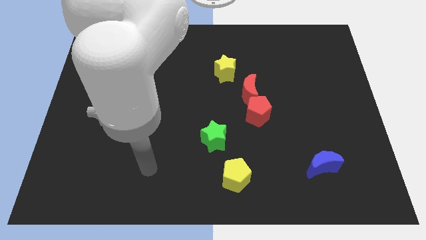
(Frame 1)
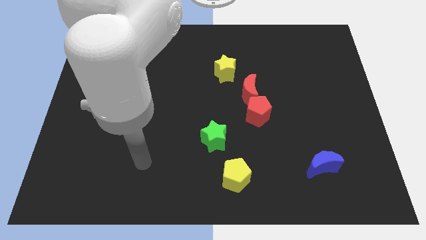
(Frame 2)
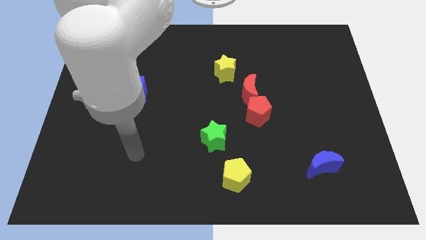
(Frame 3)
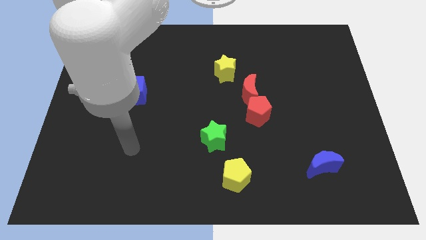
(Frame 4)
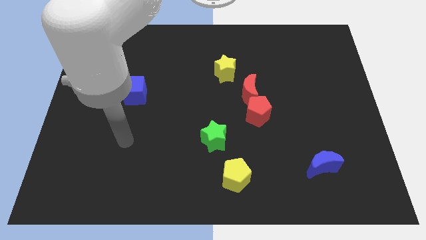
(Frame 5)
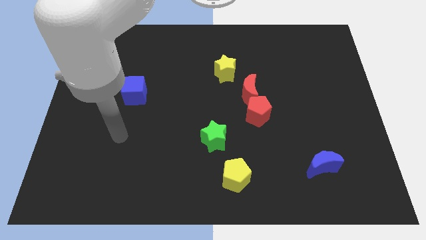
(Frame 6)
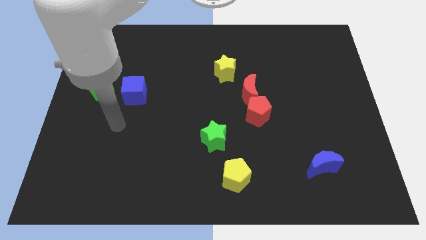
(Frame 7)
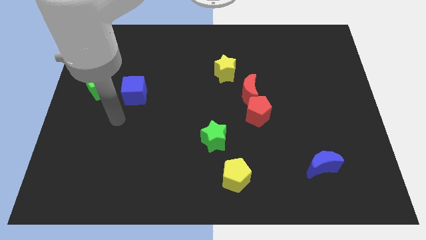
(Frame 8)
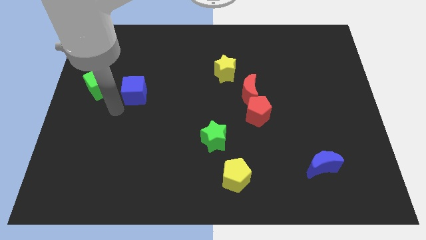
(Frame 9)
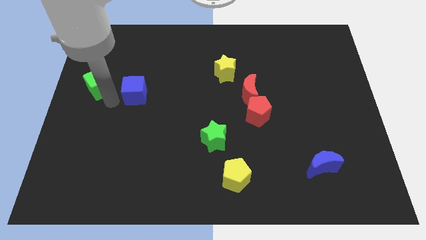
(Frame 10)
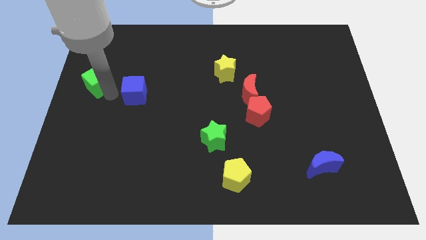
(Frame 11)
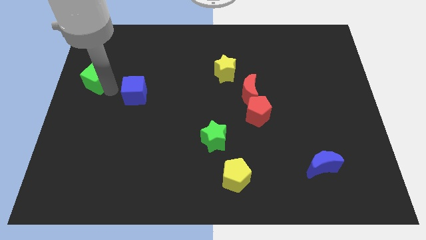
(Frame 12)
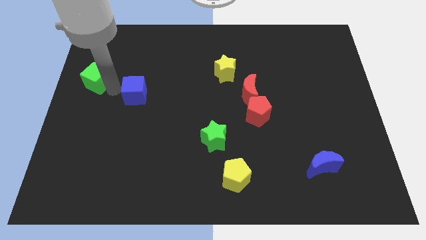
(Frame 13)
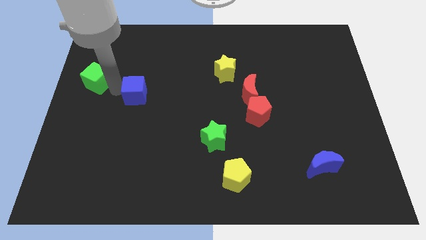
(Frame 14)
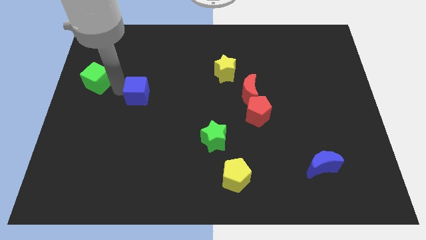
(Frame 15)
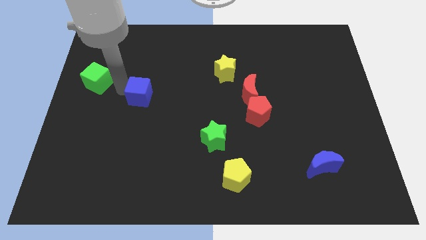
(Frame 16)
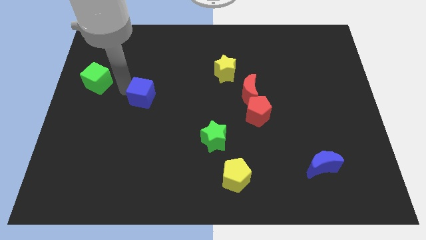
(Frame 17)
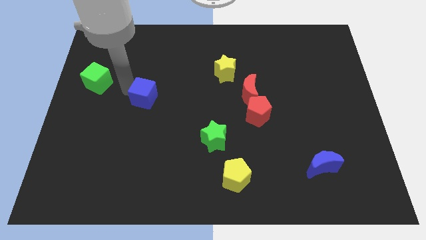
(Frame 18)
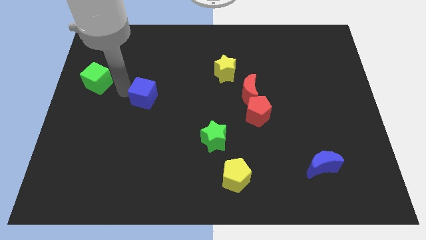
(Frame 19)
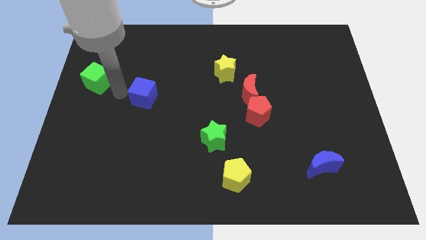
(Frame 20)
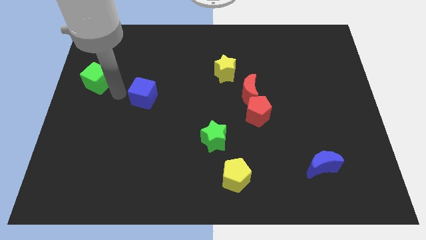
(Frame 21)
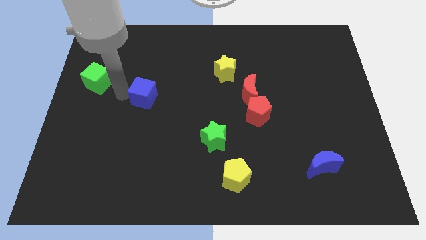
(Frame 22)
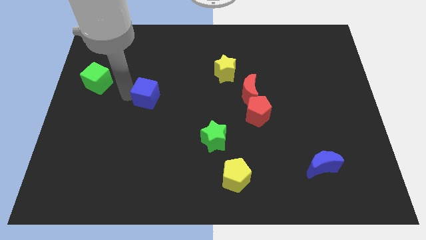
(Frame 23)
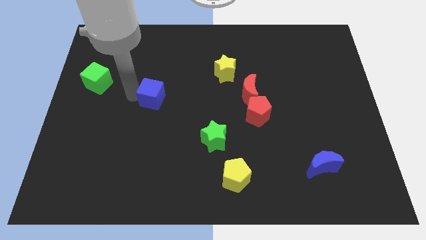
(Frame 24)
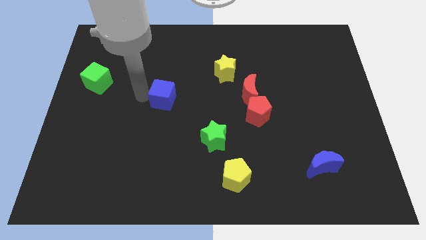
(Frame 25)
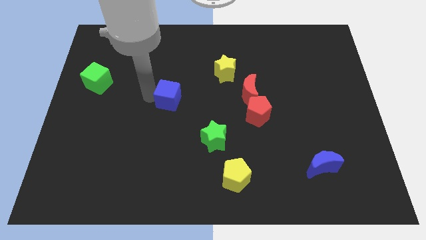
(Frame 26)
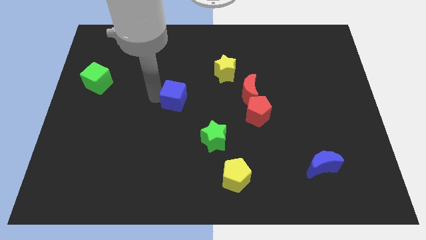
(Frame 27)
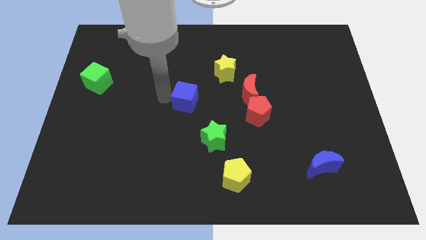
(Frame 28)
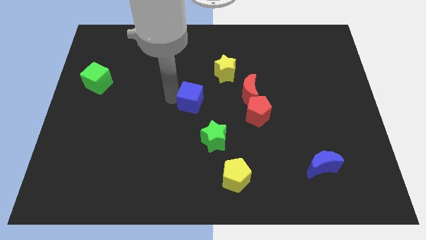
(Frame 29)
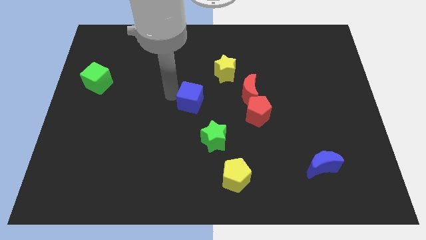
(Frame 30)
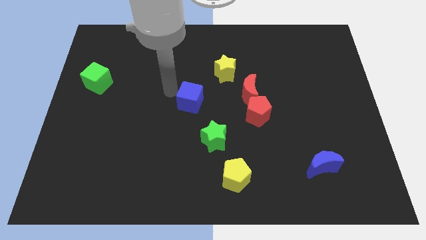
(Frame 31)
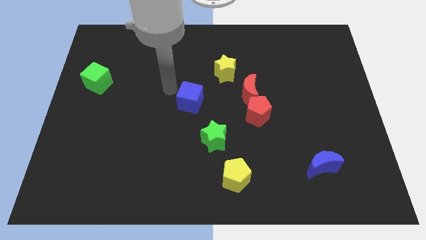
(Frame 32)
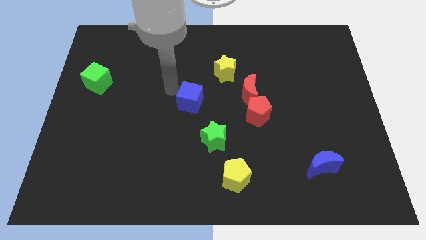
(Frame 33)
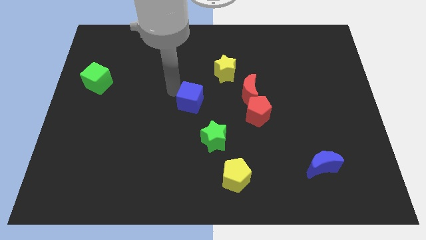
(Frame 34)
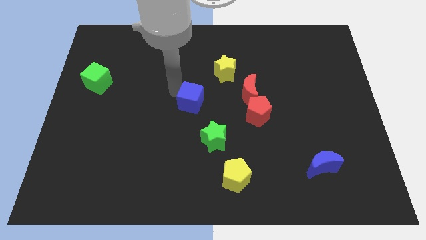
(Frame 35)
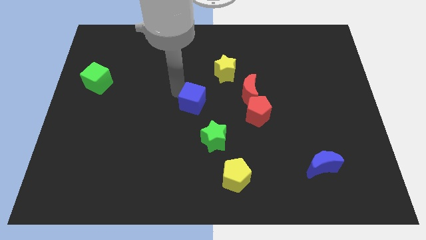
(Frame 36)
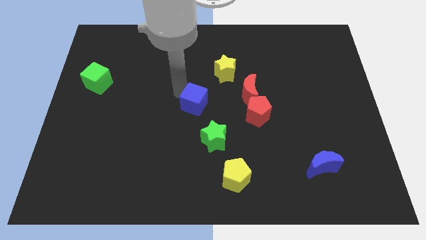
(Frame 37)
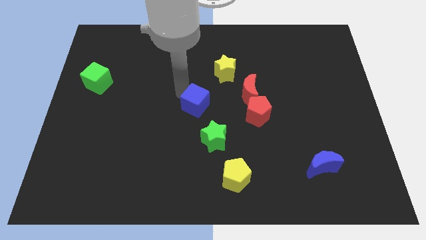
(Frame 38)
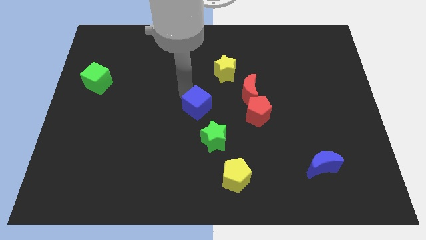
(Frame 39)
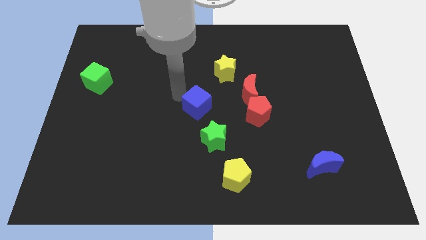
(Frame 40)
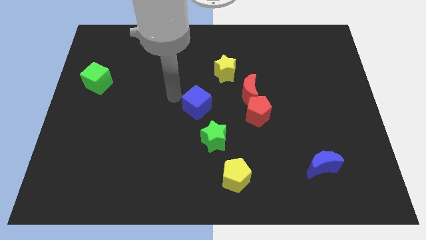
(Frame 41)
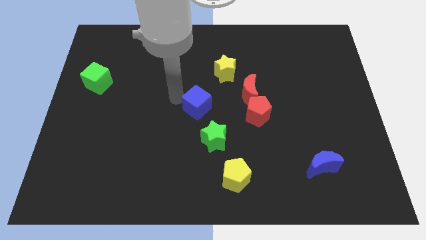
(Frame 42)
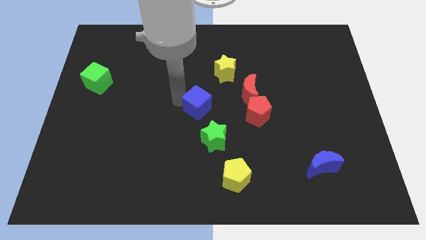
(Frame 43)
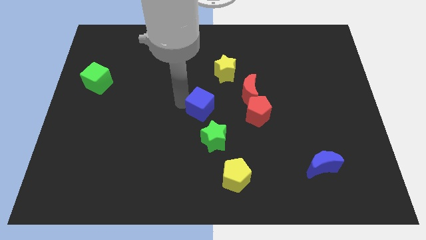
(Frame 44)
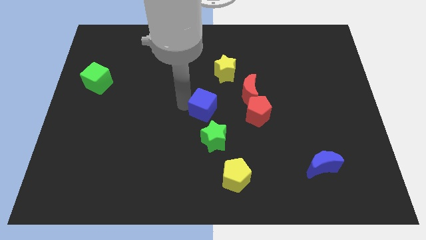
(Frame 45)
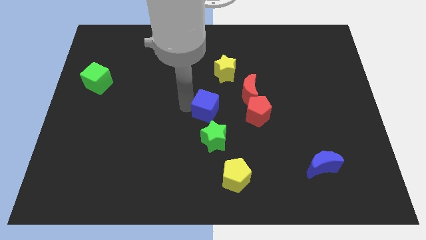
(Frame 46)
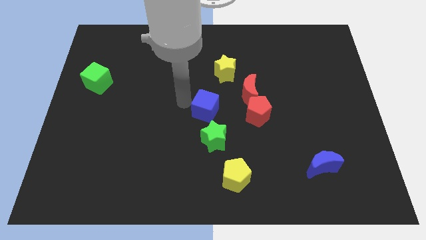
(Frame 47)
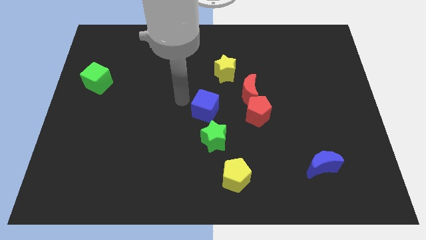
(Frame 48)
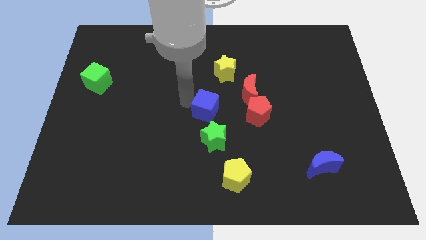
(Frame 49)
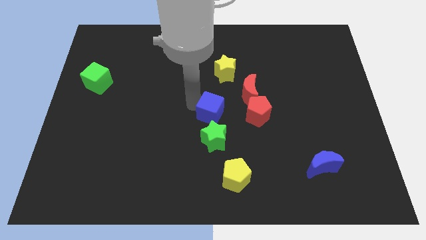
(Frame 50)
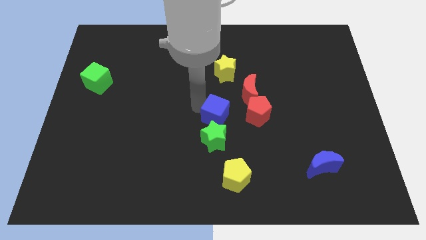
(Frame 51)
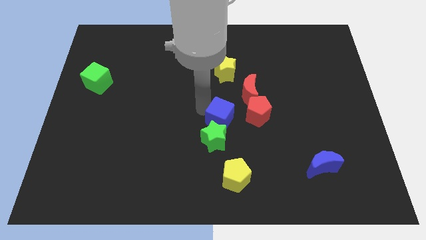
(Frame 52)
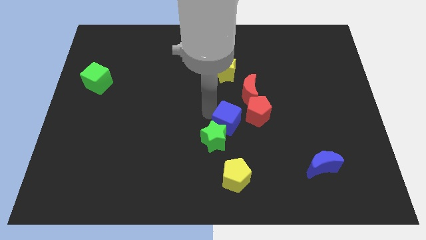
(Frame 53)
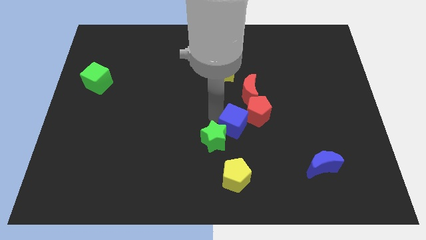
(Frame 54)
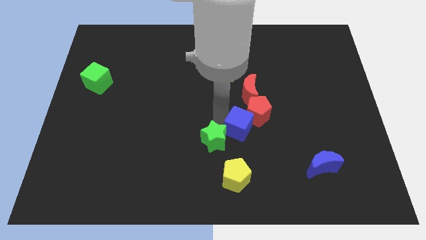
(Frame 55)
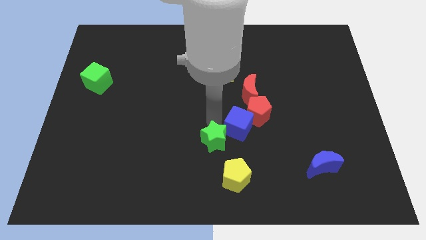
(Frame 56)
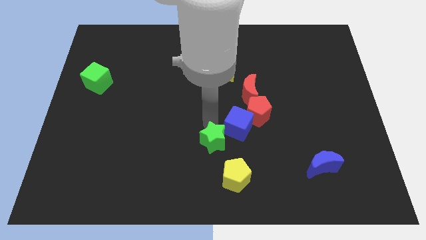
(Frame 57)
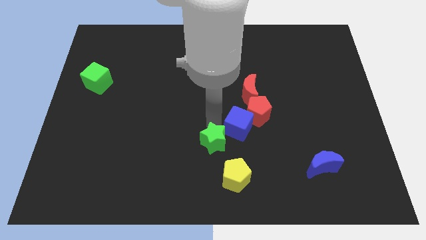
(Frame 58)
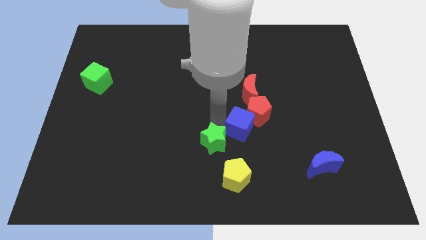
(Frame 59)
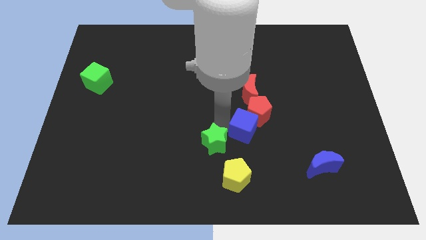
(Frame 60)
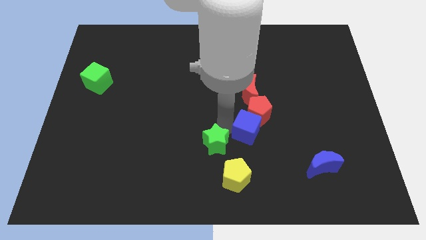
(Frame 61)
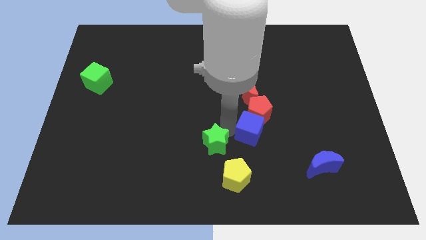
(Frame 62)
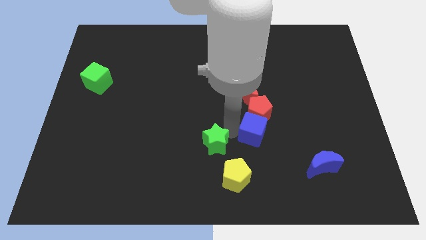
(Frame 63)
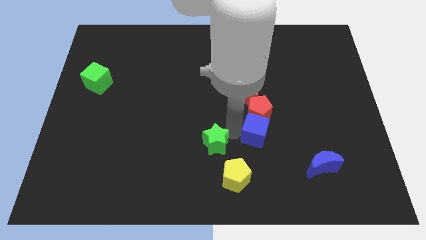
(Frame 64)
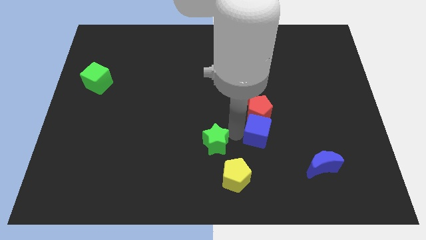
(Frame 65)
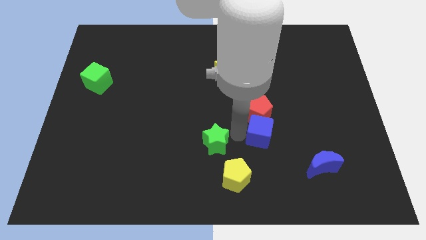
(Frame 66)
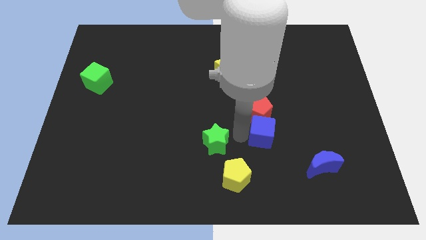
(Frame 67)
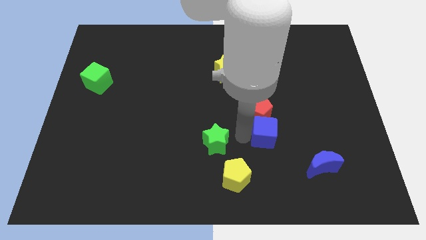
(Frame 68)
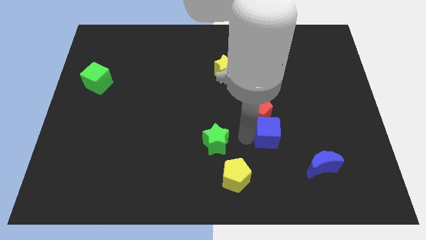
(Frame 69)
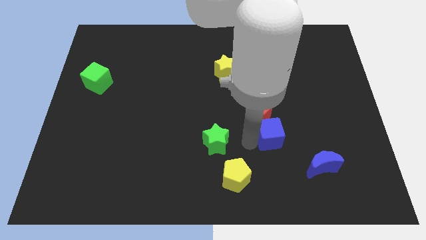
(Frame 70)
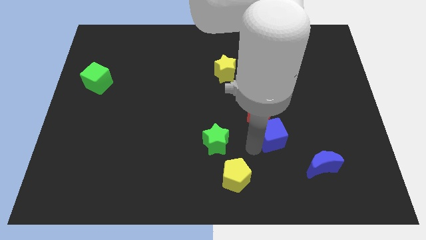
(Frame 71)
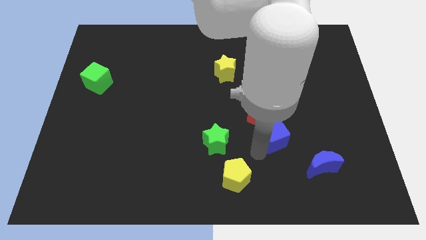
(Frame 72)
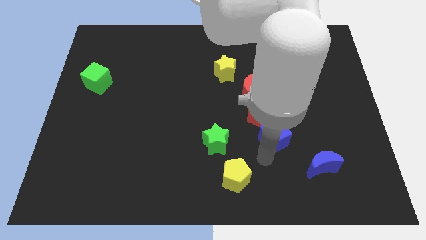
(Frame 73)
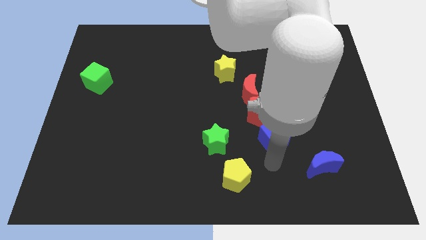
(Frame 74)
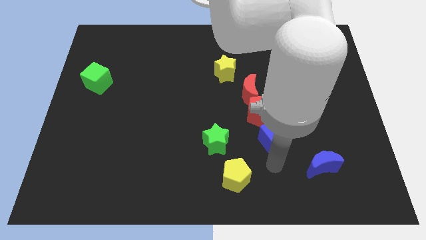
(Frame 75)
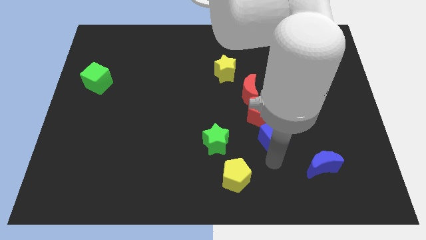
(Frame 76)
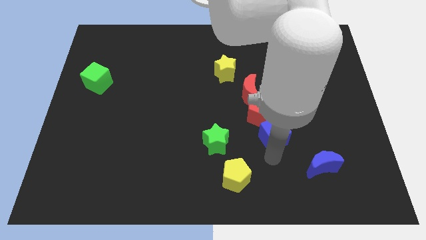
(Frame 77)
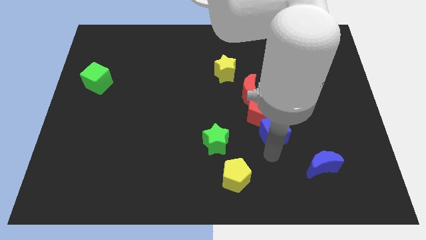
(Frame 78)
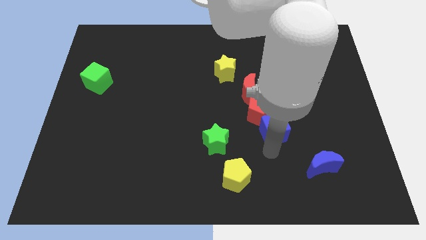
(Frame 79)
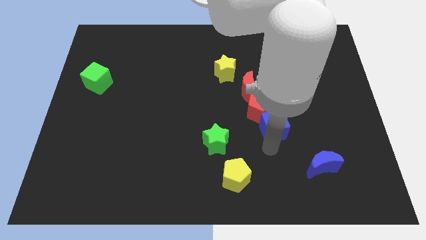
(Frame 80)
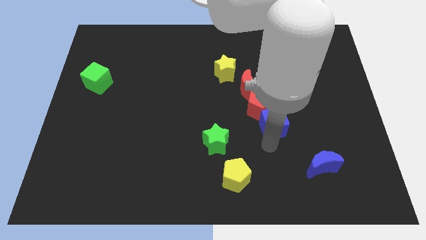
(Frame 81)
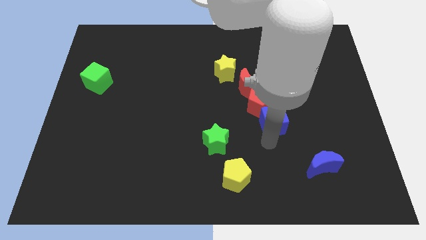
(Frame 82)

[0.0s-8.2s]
push the blue cube to the bottom right side of the red moon
